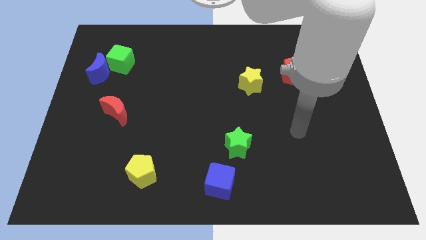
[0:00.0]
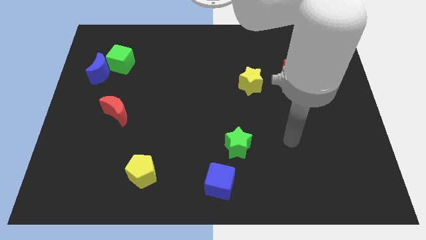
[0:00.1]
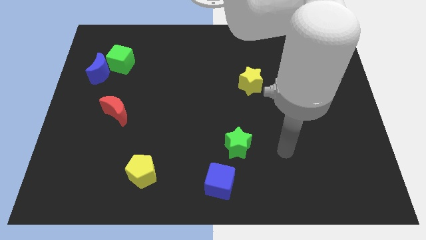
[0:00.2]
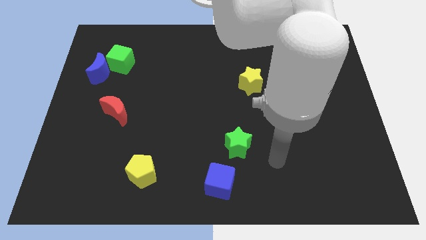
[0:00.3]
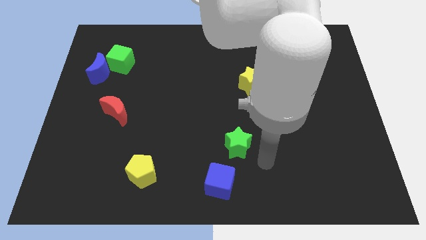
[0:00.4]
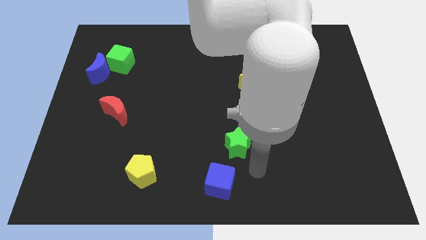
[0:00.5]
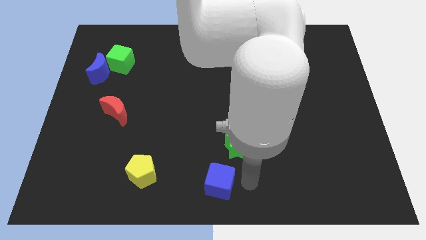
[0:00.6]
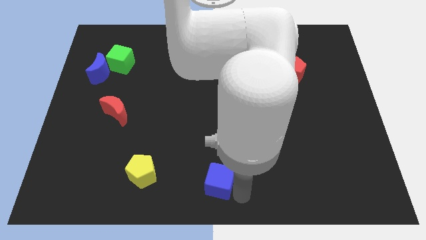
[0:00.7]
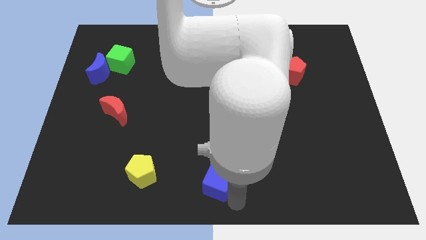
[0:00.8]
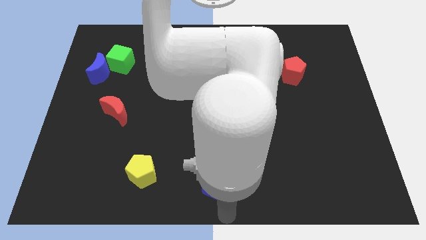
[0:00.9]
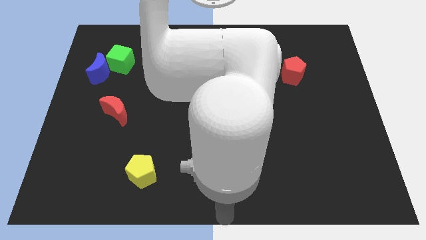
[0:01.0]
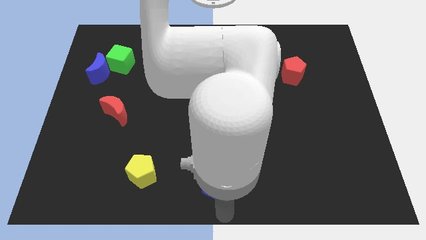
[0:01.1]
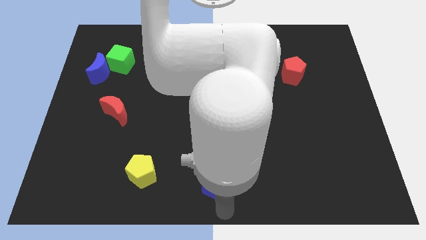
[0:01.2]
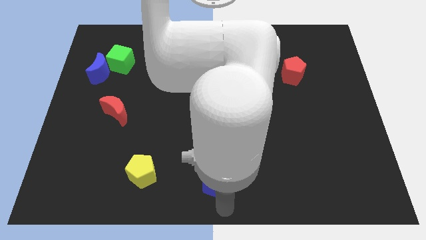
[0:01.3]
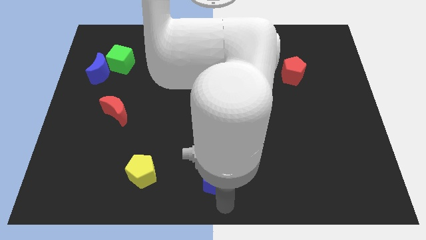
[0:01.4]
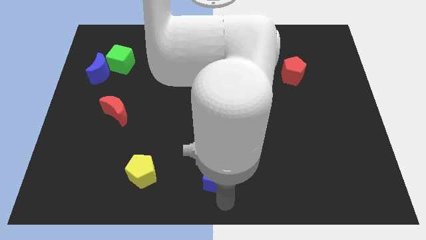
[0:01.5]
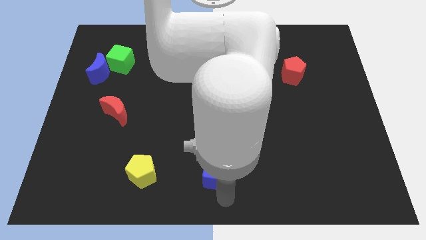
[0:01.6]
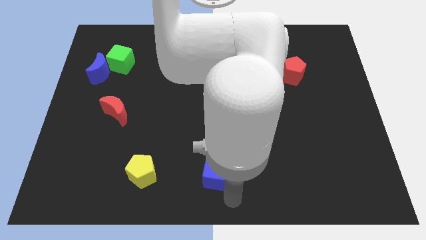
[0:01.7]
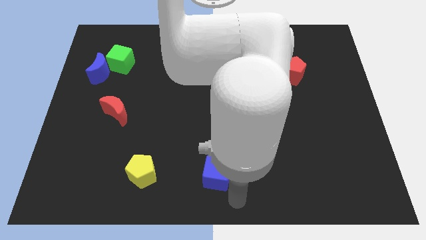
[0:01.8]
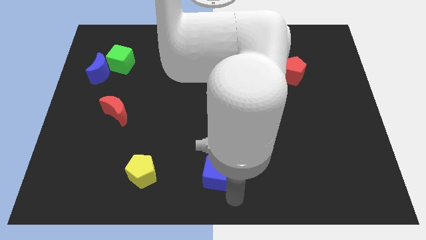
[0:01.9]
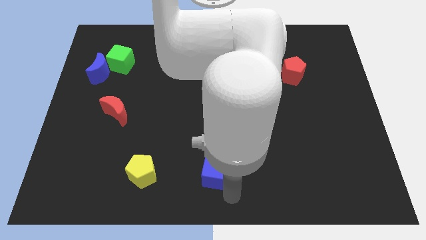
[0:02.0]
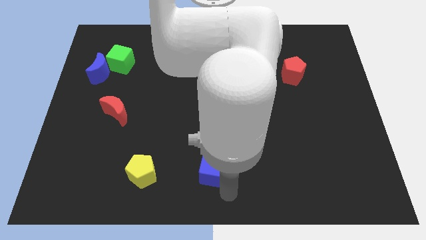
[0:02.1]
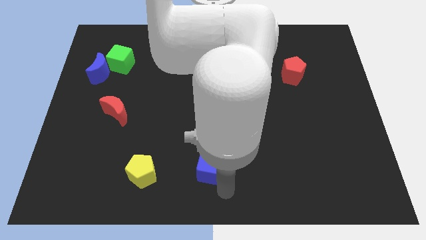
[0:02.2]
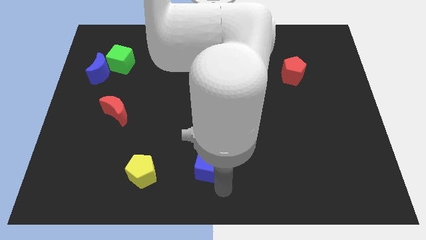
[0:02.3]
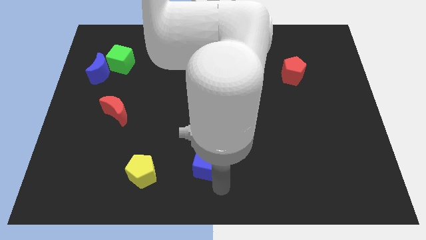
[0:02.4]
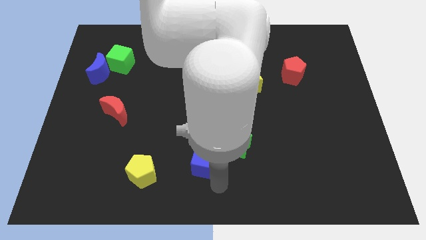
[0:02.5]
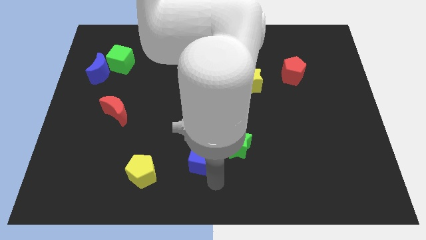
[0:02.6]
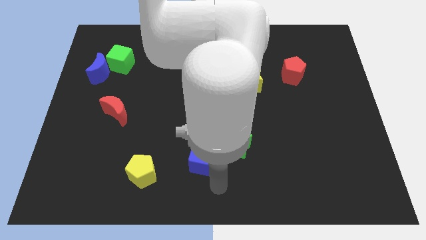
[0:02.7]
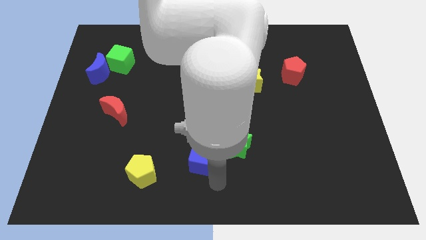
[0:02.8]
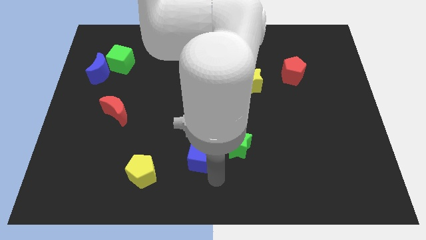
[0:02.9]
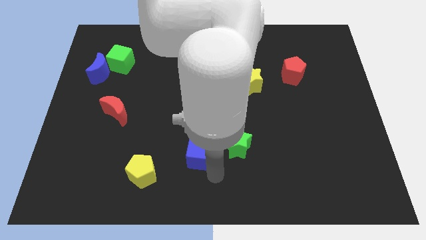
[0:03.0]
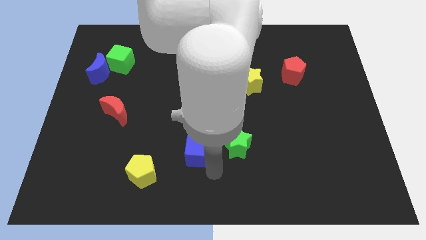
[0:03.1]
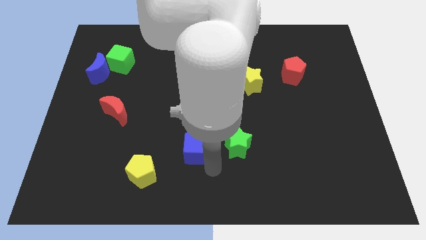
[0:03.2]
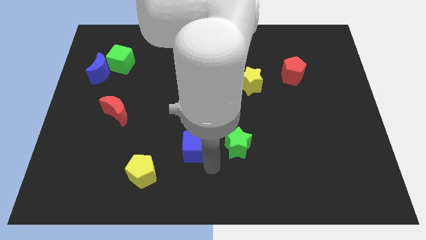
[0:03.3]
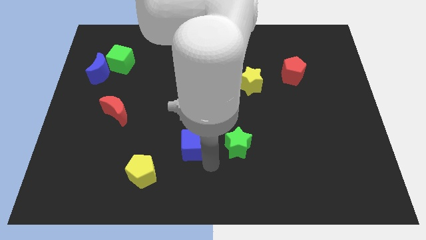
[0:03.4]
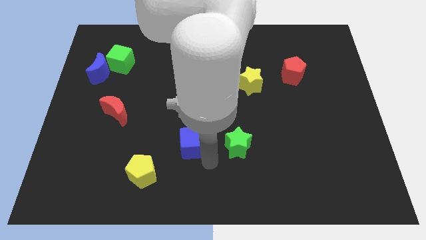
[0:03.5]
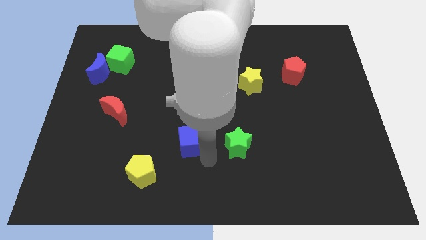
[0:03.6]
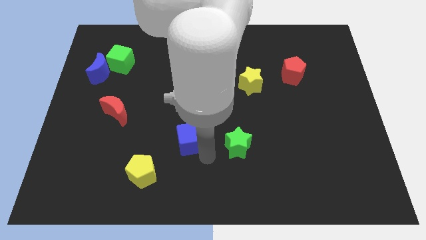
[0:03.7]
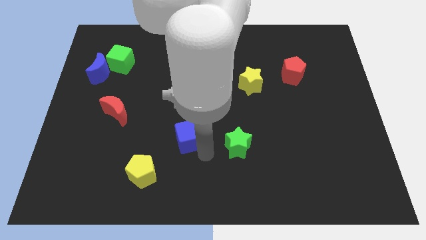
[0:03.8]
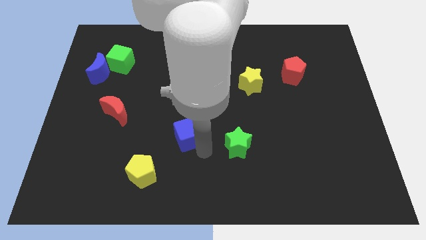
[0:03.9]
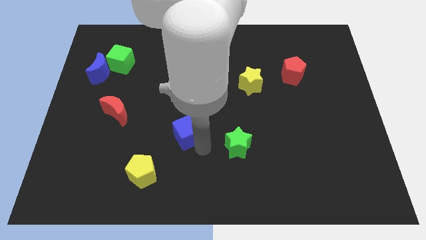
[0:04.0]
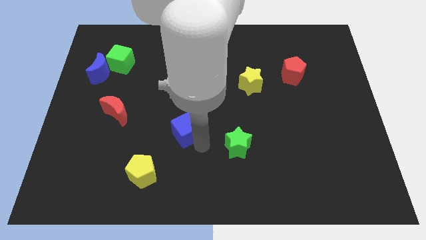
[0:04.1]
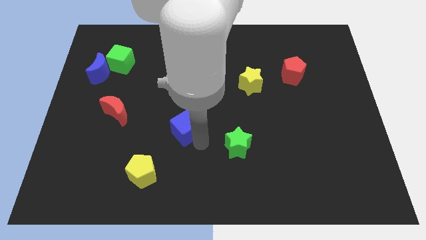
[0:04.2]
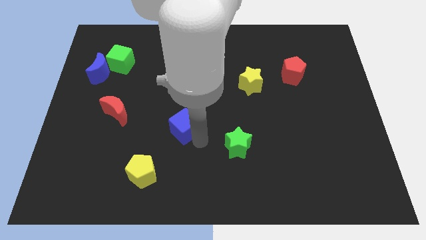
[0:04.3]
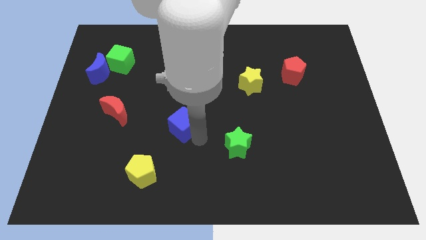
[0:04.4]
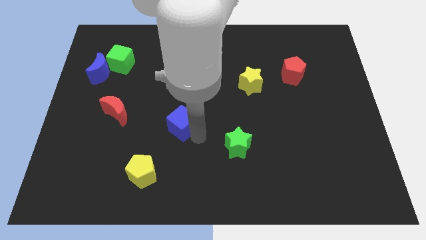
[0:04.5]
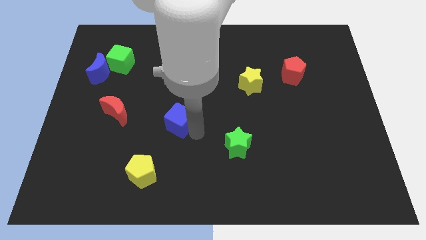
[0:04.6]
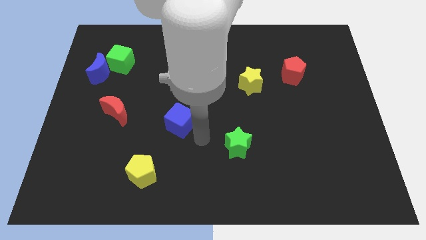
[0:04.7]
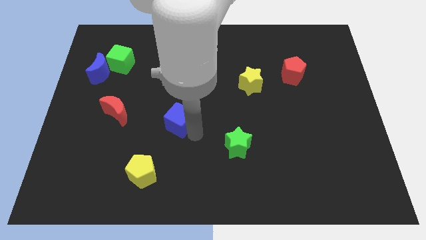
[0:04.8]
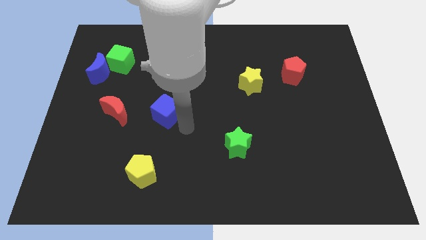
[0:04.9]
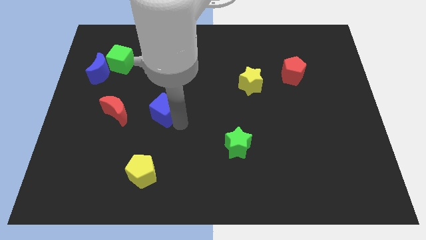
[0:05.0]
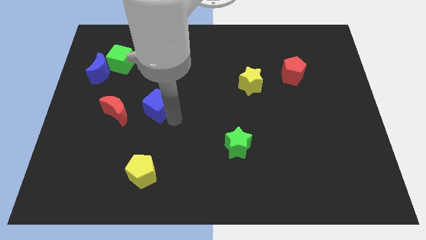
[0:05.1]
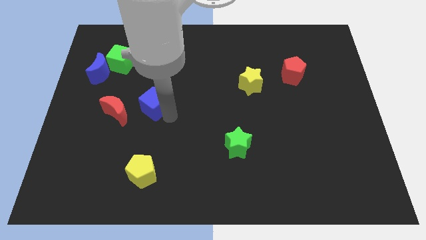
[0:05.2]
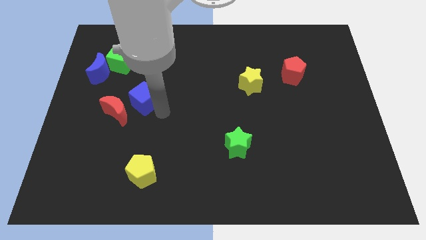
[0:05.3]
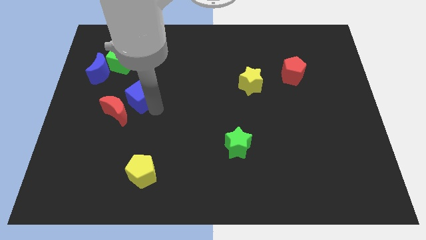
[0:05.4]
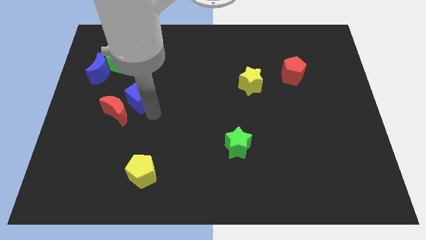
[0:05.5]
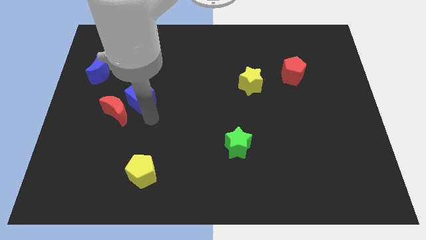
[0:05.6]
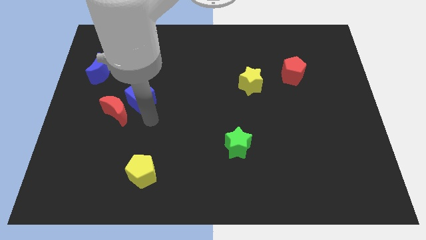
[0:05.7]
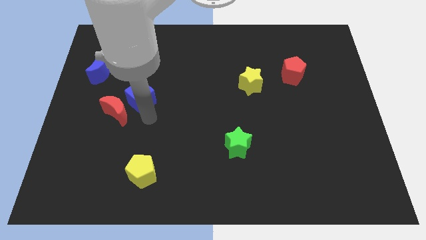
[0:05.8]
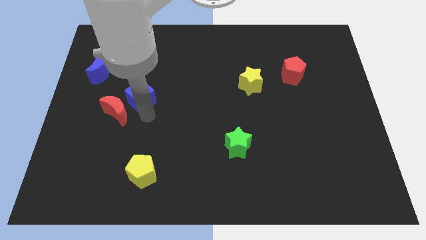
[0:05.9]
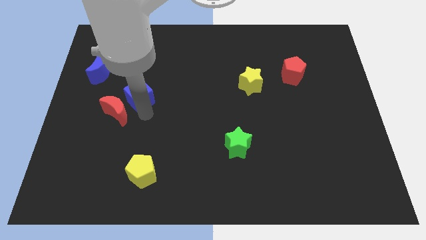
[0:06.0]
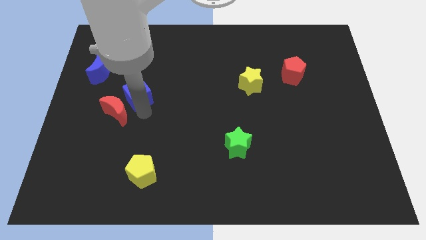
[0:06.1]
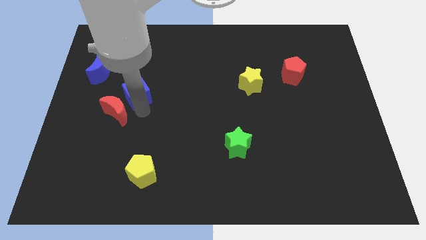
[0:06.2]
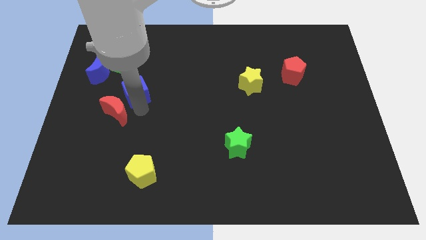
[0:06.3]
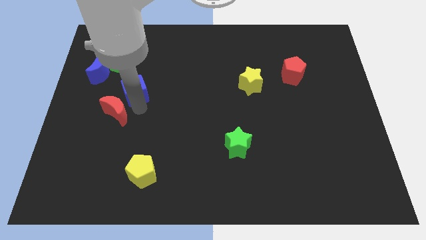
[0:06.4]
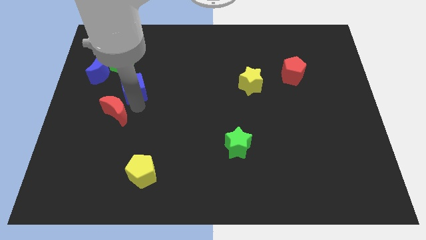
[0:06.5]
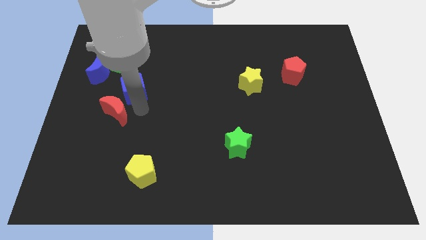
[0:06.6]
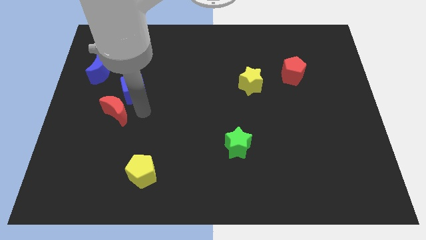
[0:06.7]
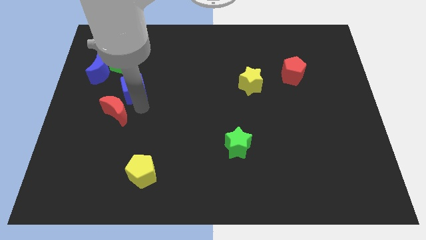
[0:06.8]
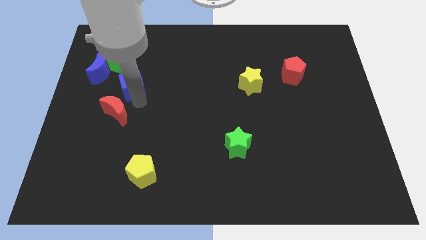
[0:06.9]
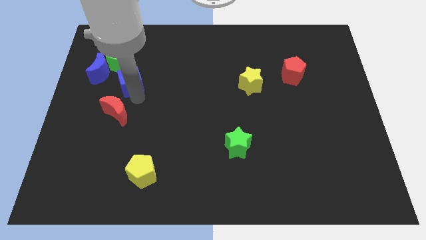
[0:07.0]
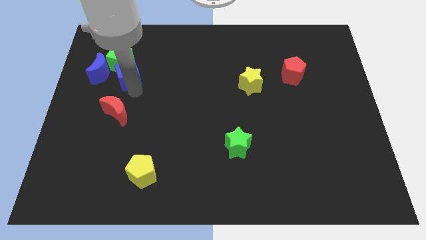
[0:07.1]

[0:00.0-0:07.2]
slide the blue cube to the green cube

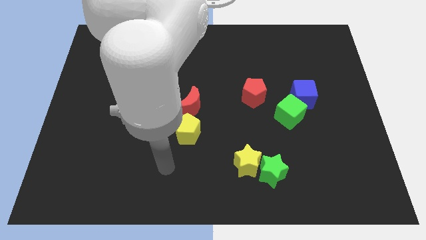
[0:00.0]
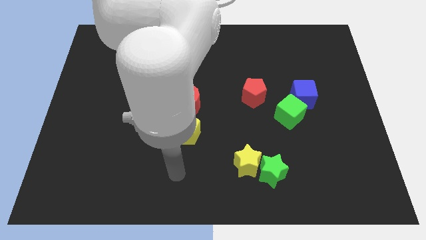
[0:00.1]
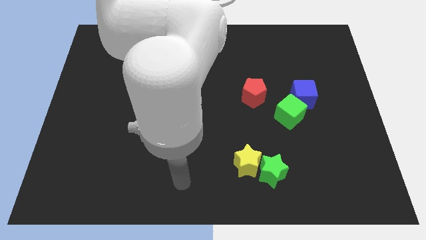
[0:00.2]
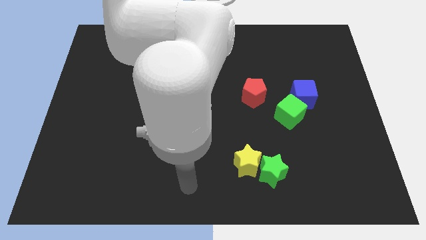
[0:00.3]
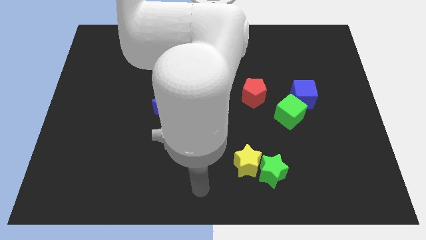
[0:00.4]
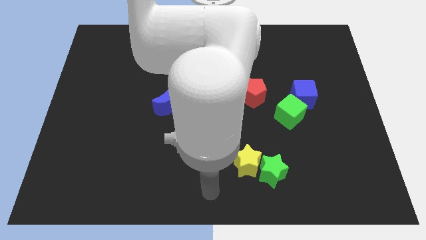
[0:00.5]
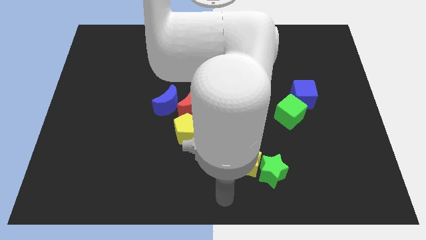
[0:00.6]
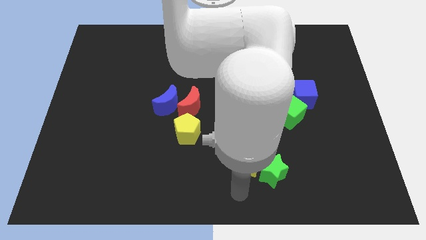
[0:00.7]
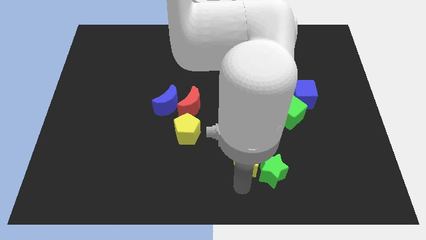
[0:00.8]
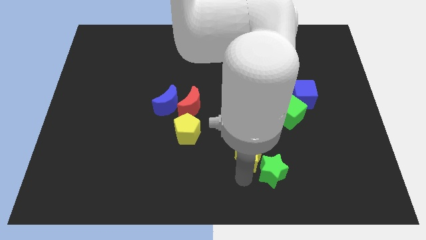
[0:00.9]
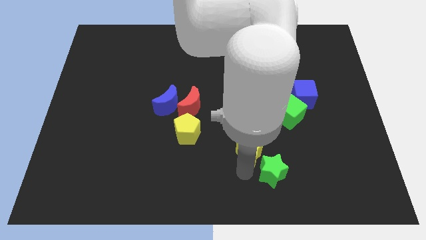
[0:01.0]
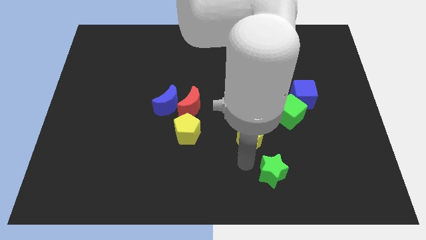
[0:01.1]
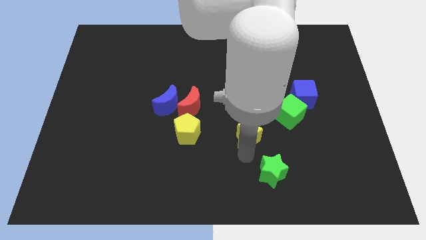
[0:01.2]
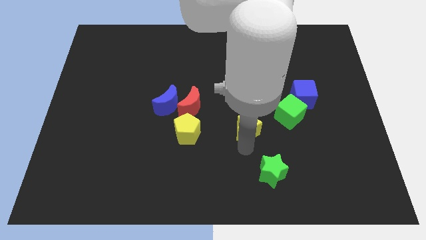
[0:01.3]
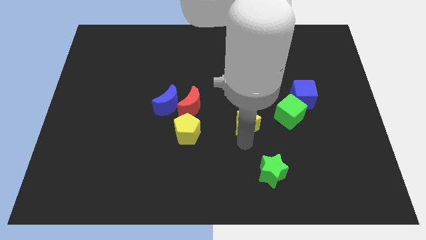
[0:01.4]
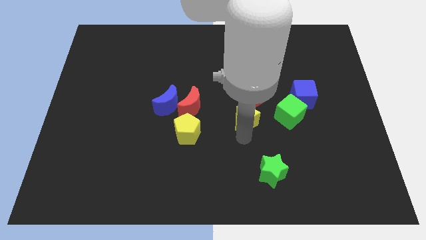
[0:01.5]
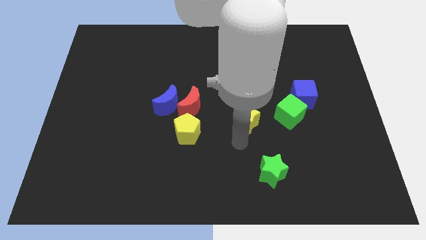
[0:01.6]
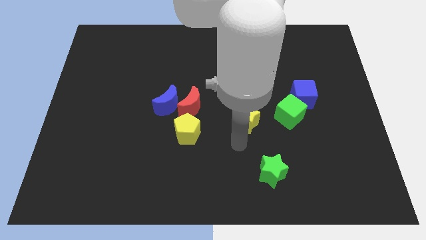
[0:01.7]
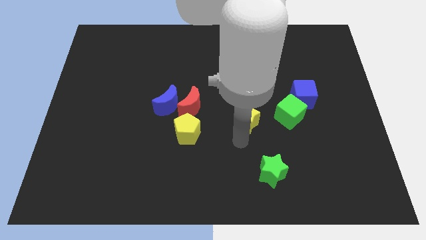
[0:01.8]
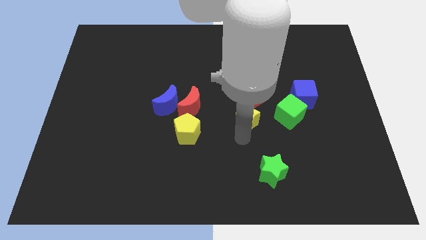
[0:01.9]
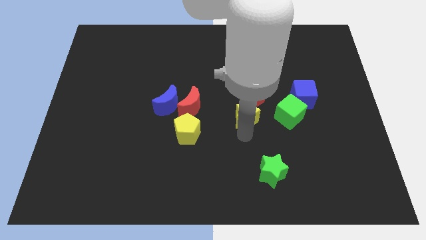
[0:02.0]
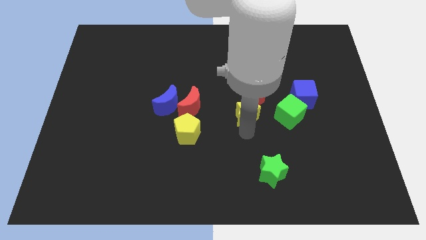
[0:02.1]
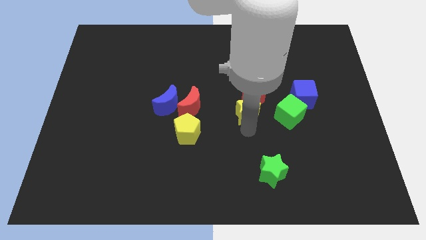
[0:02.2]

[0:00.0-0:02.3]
move the yellow star close to the red pentagon
